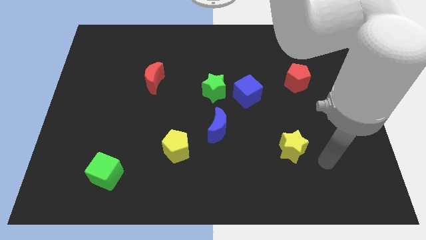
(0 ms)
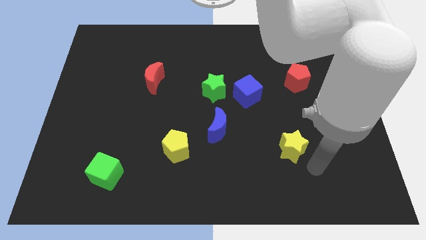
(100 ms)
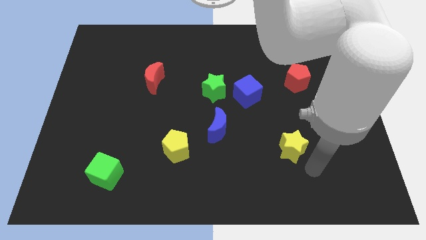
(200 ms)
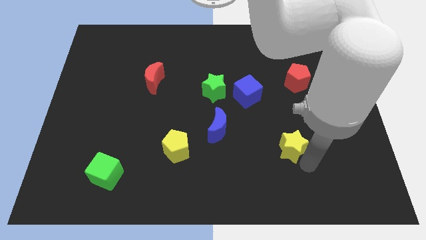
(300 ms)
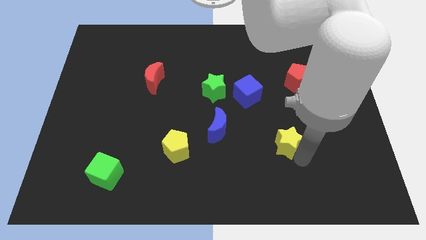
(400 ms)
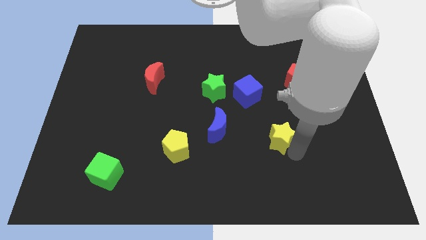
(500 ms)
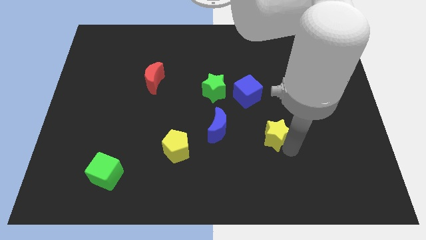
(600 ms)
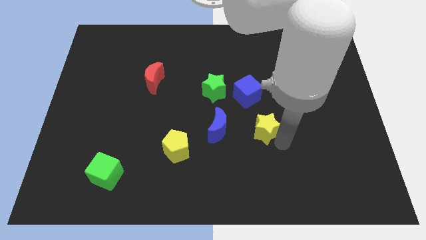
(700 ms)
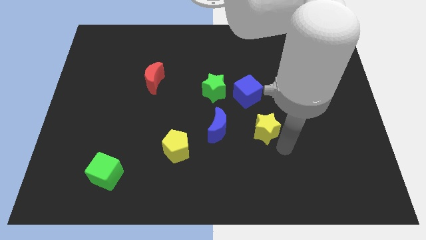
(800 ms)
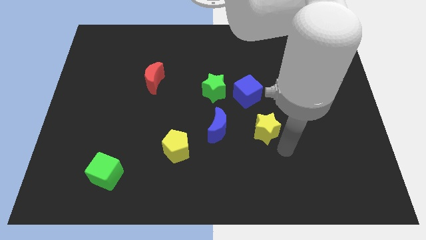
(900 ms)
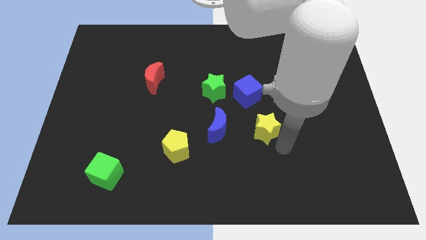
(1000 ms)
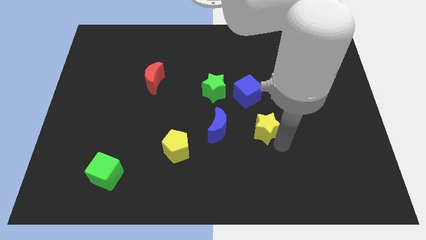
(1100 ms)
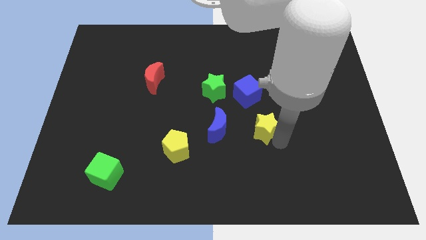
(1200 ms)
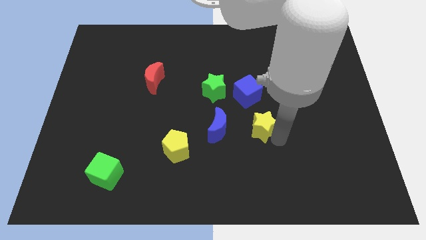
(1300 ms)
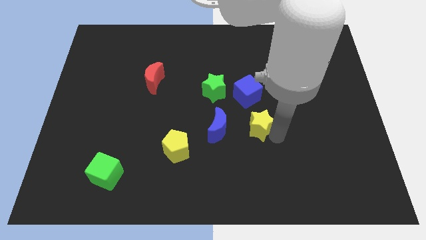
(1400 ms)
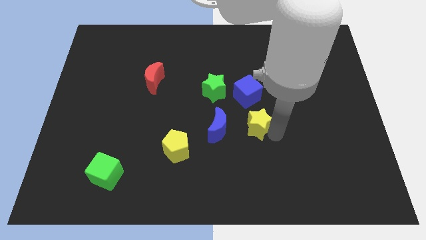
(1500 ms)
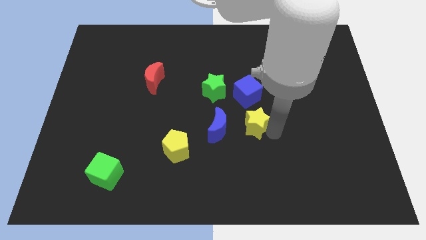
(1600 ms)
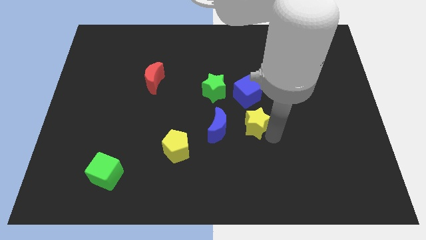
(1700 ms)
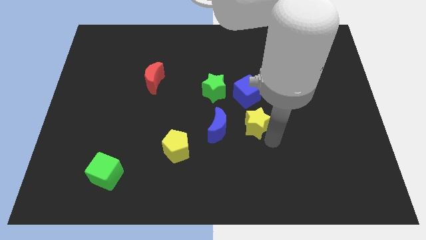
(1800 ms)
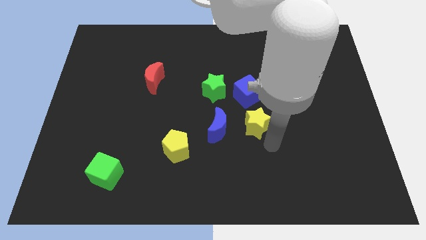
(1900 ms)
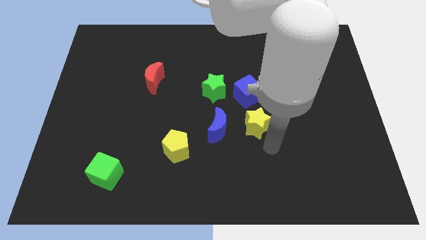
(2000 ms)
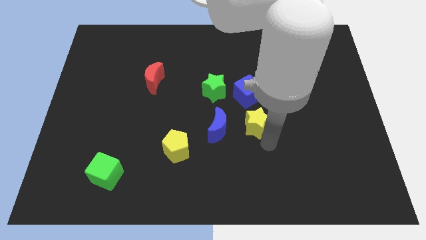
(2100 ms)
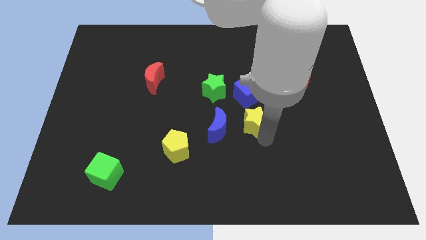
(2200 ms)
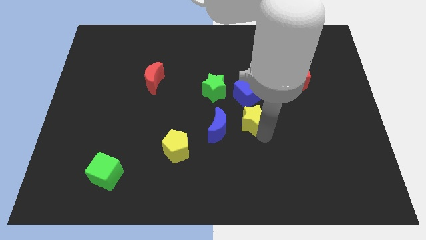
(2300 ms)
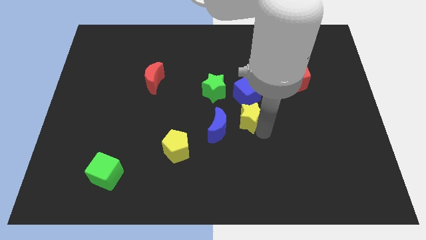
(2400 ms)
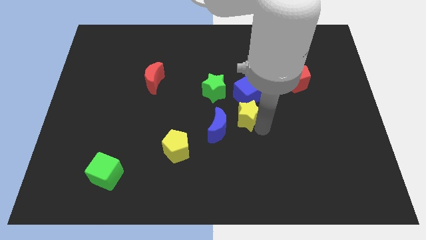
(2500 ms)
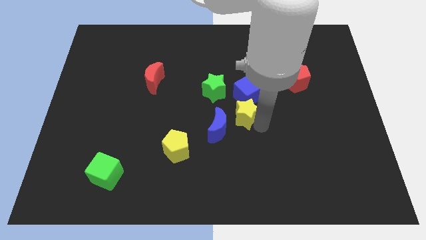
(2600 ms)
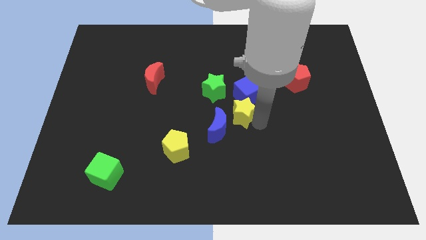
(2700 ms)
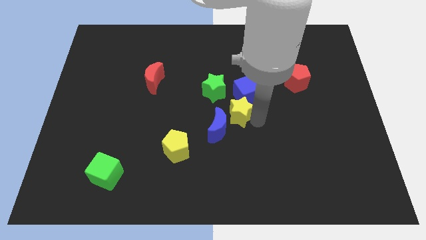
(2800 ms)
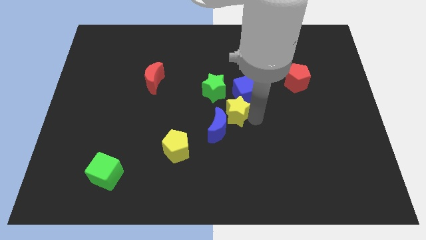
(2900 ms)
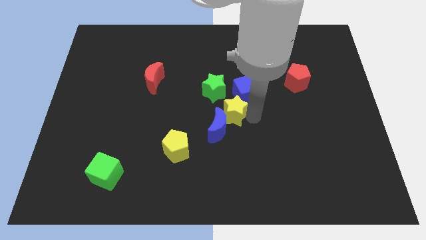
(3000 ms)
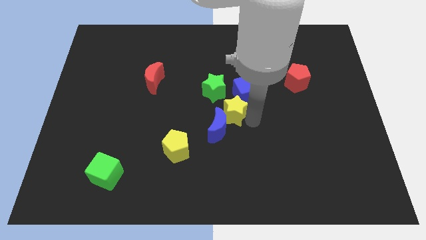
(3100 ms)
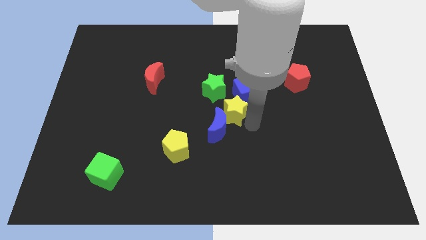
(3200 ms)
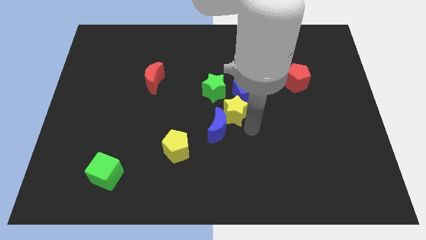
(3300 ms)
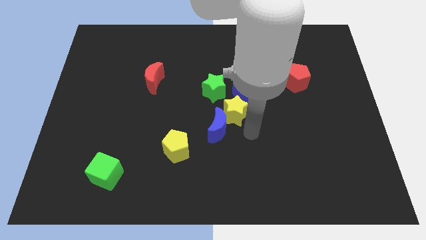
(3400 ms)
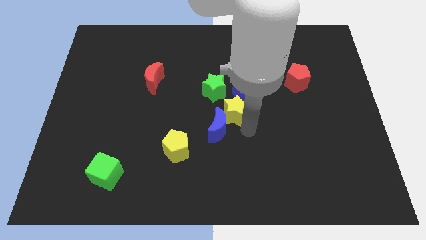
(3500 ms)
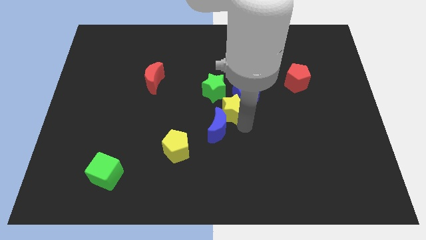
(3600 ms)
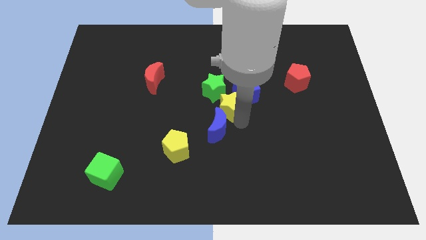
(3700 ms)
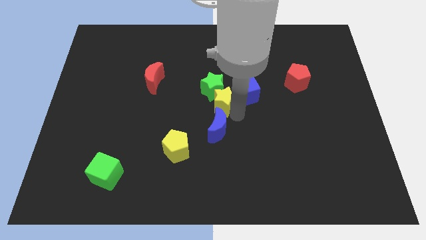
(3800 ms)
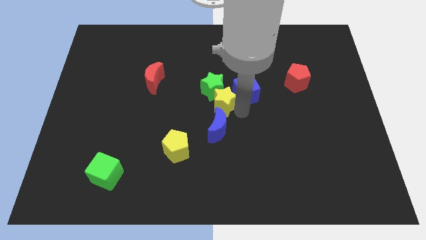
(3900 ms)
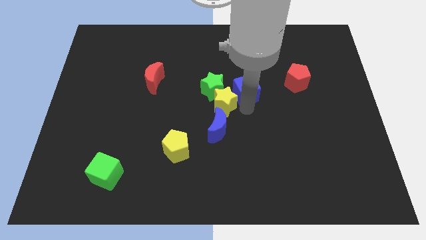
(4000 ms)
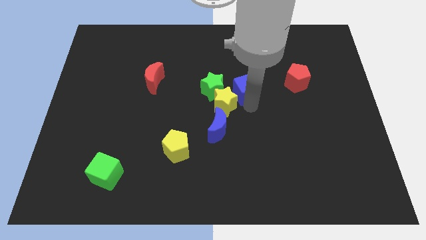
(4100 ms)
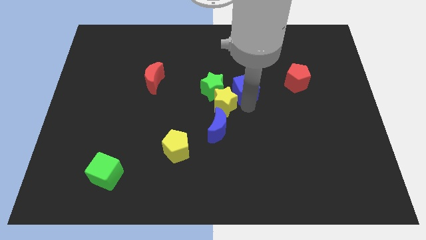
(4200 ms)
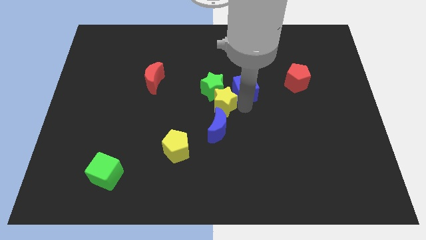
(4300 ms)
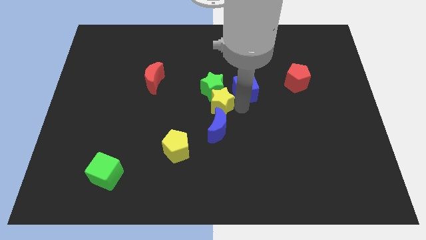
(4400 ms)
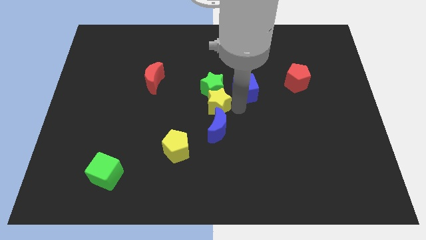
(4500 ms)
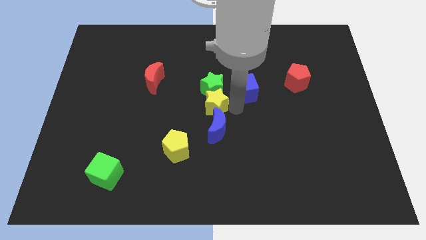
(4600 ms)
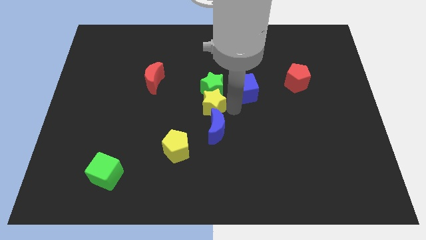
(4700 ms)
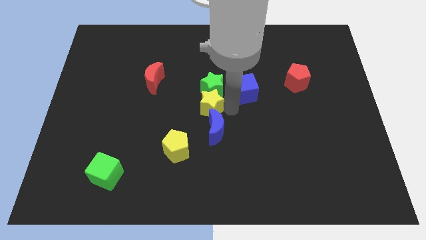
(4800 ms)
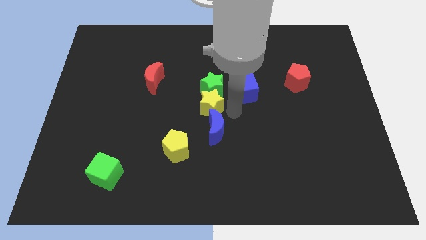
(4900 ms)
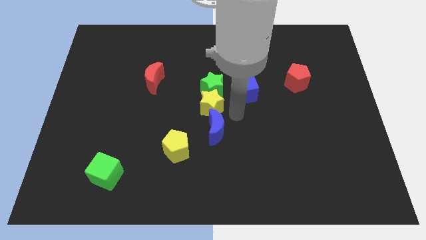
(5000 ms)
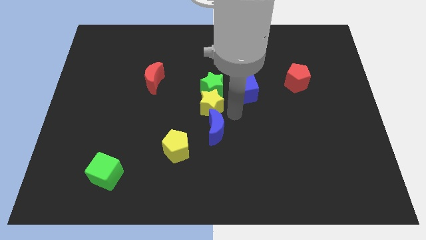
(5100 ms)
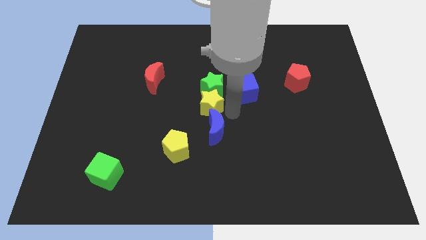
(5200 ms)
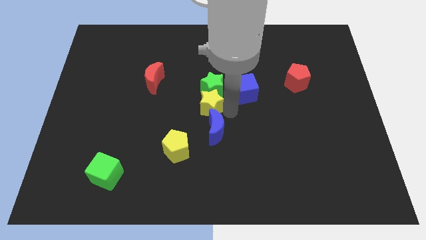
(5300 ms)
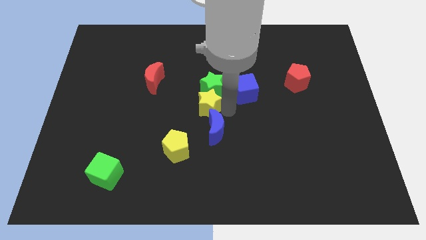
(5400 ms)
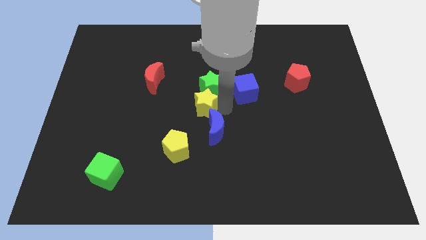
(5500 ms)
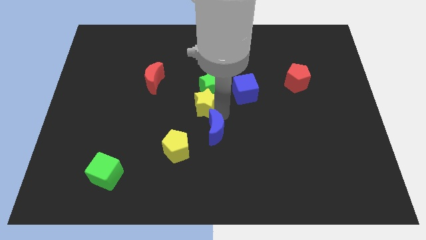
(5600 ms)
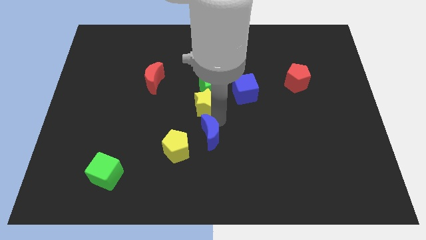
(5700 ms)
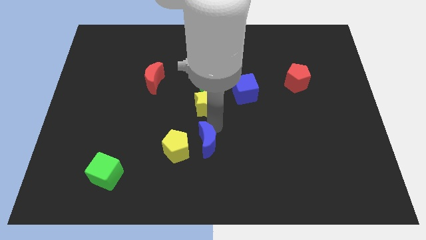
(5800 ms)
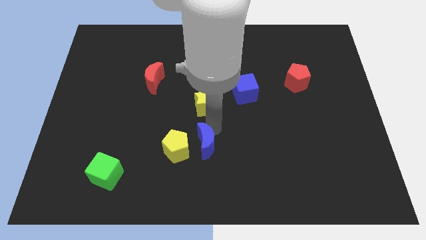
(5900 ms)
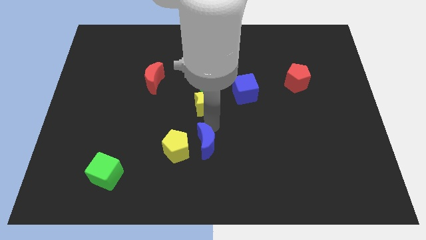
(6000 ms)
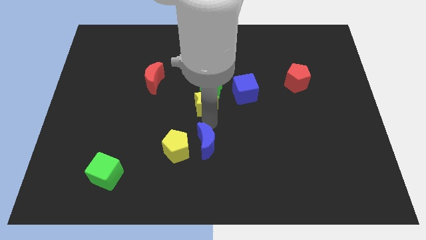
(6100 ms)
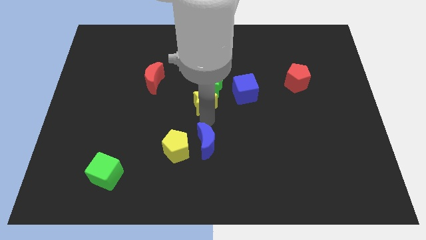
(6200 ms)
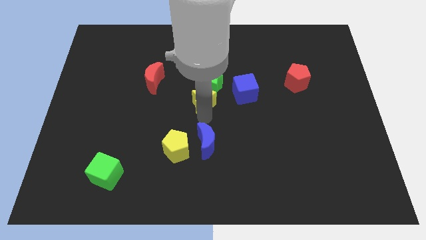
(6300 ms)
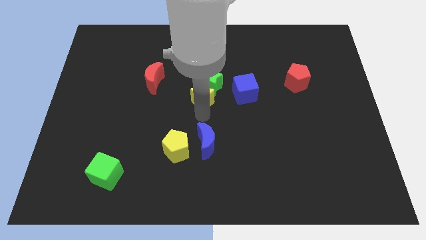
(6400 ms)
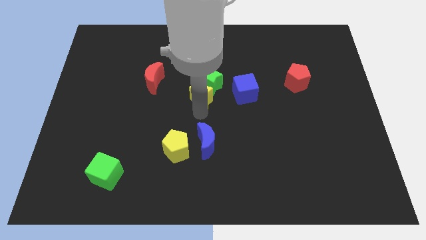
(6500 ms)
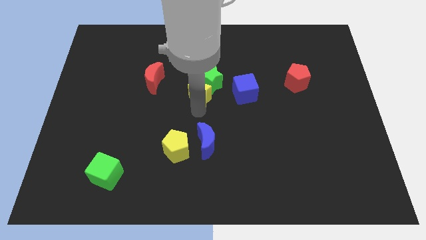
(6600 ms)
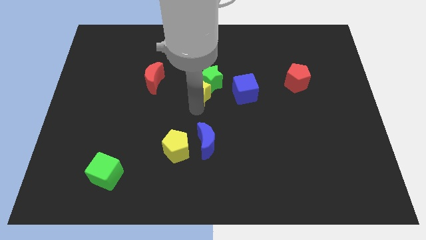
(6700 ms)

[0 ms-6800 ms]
move the yellow star to the right side of the red moon

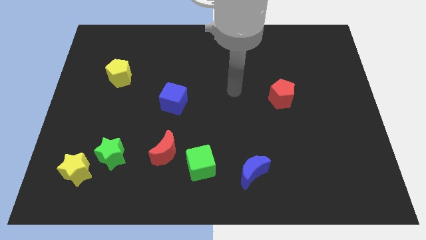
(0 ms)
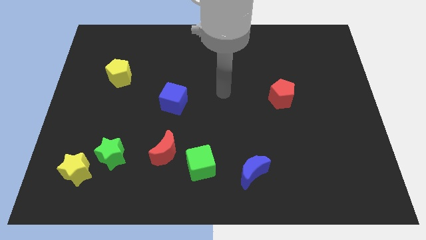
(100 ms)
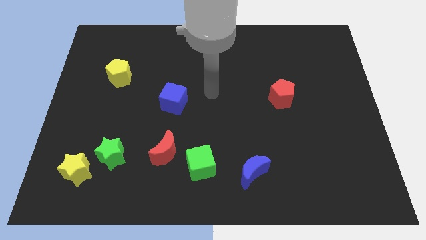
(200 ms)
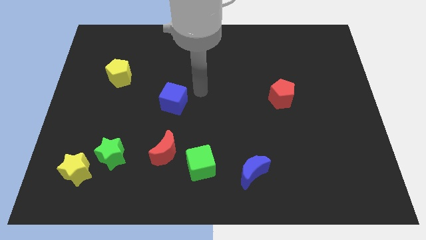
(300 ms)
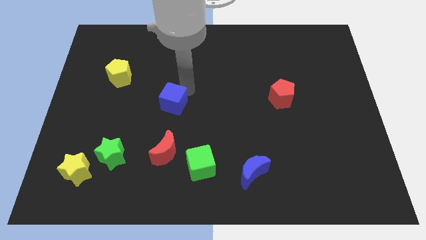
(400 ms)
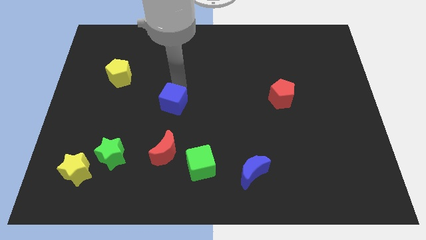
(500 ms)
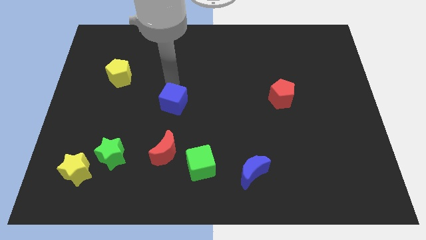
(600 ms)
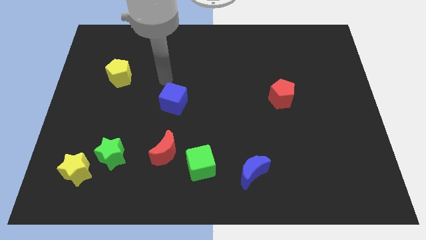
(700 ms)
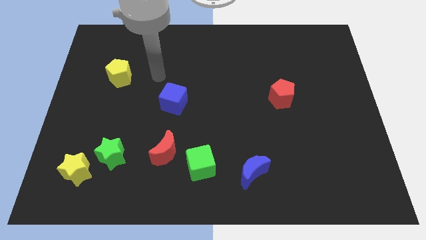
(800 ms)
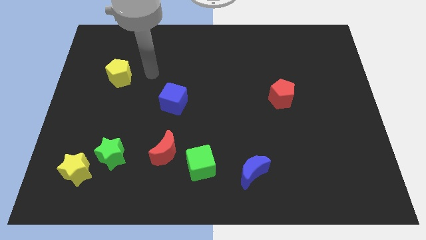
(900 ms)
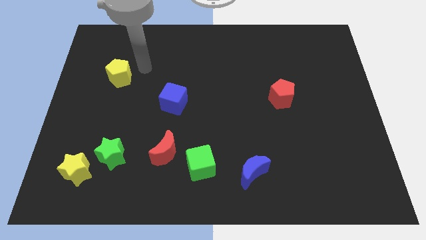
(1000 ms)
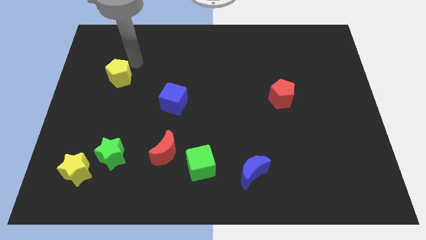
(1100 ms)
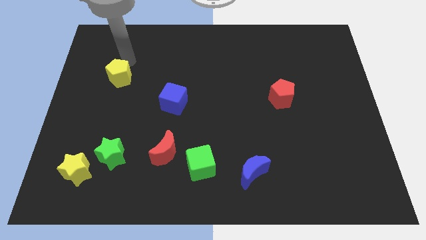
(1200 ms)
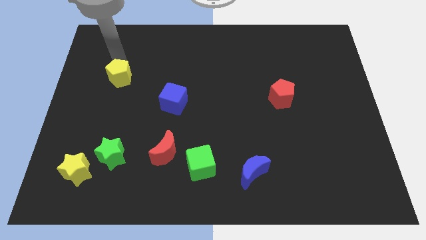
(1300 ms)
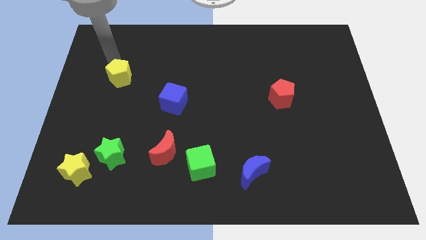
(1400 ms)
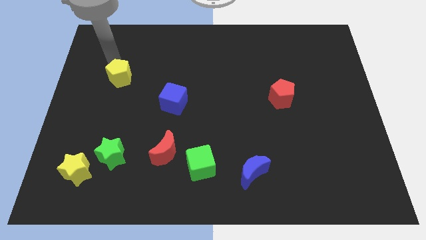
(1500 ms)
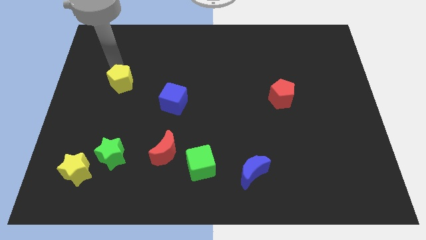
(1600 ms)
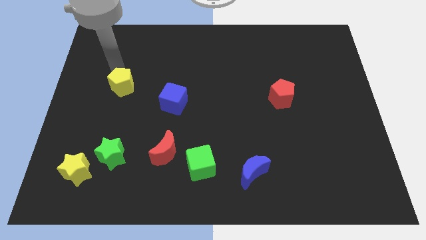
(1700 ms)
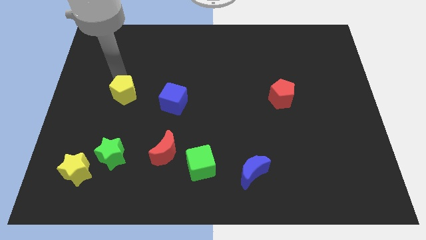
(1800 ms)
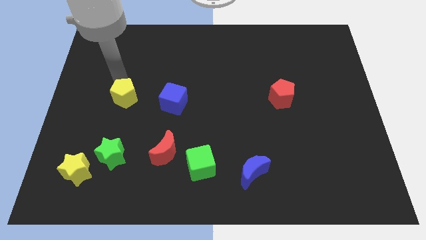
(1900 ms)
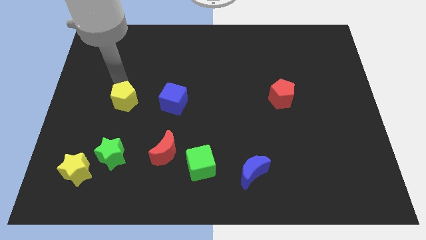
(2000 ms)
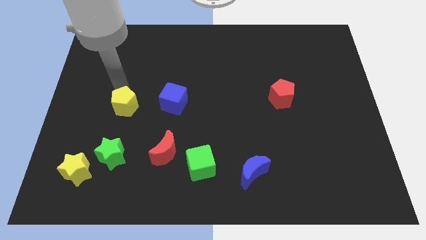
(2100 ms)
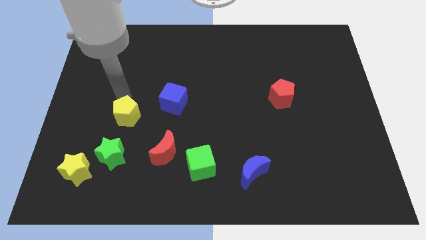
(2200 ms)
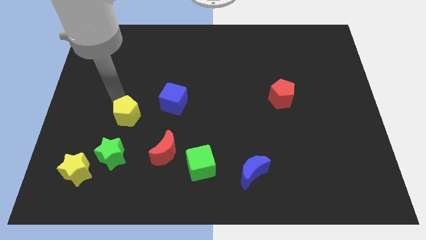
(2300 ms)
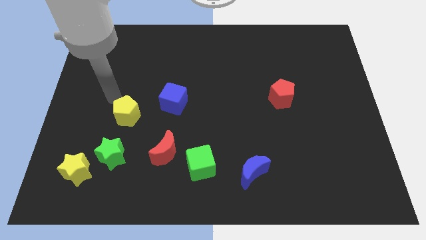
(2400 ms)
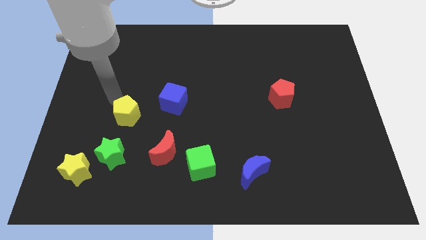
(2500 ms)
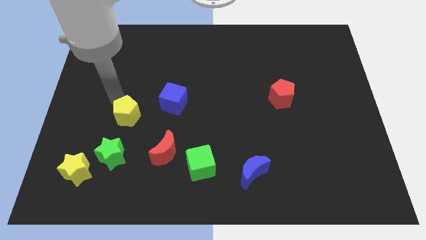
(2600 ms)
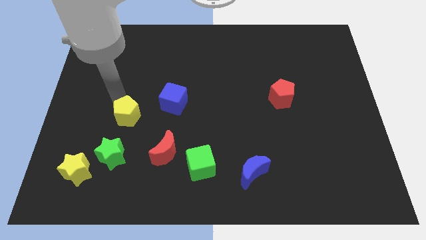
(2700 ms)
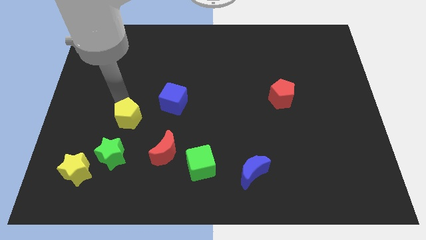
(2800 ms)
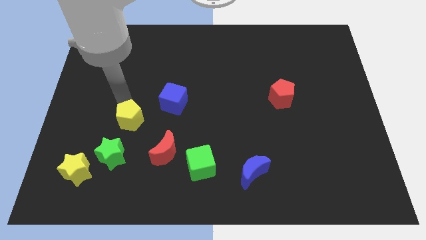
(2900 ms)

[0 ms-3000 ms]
push the yellow pentagon to the top left of the red moon
